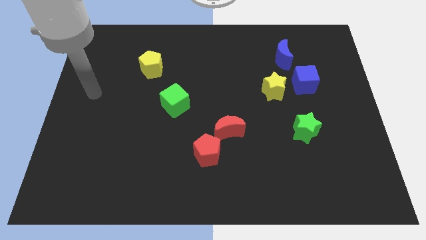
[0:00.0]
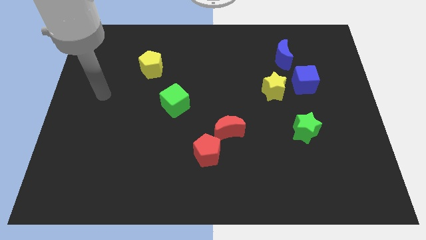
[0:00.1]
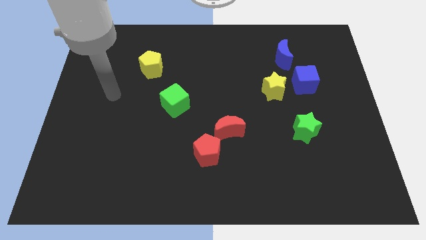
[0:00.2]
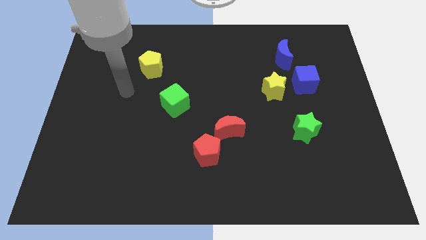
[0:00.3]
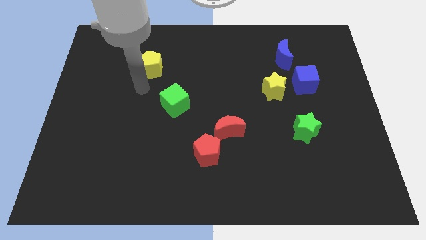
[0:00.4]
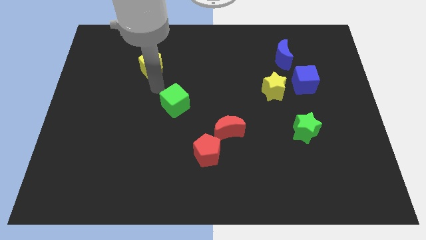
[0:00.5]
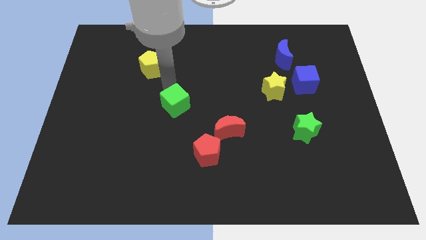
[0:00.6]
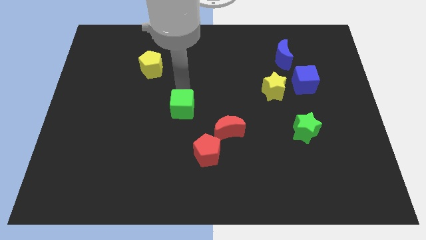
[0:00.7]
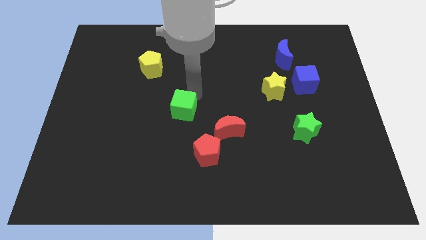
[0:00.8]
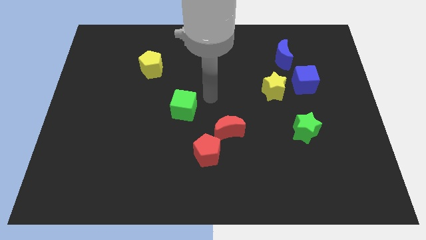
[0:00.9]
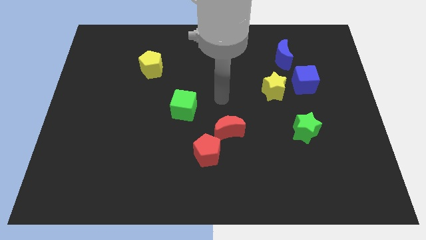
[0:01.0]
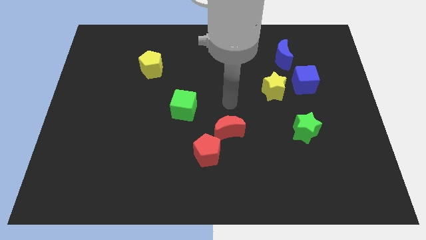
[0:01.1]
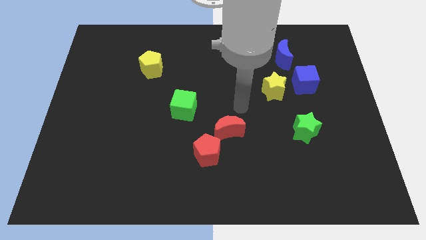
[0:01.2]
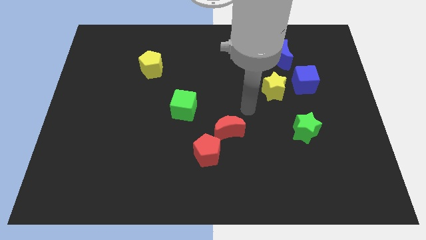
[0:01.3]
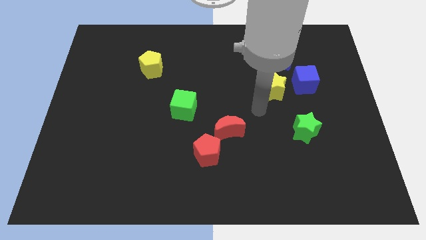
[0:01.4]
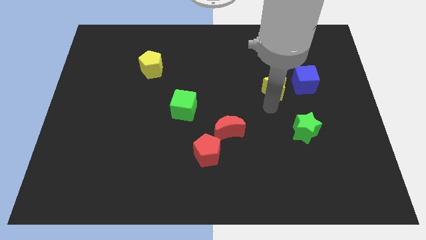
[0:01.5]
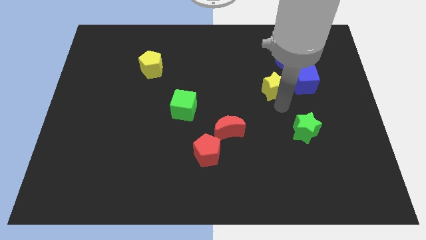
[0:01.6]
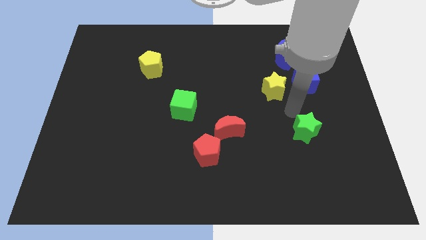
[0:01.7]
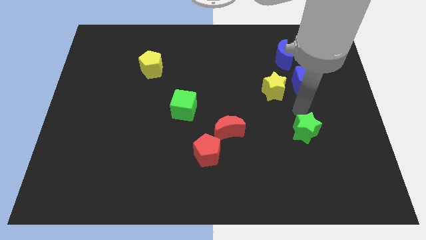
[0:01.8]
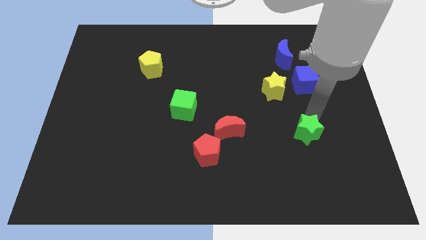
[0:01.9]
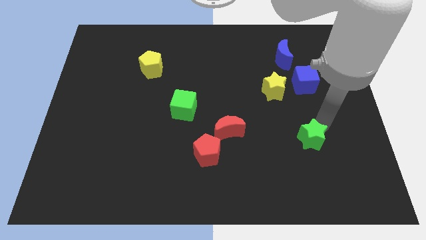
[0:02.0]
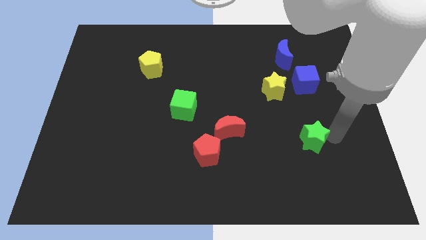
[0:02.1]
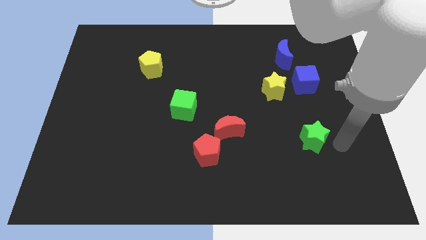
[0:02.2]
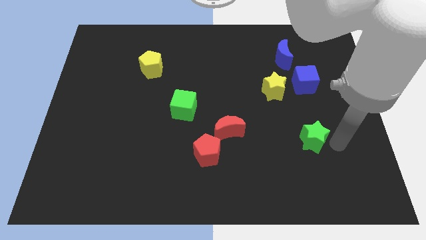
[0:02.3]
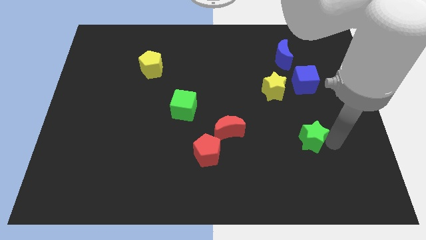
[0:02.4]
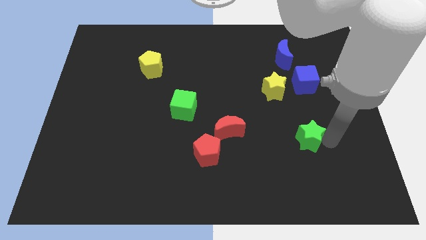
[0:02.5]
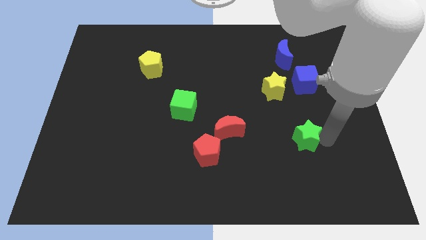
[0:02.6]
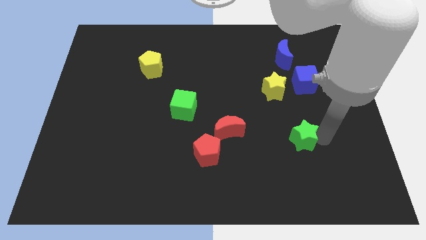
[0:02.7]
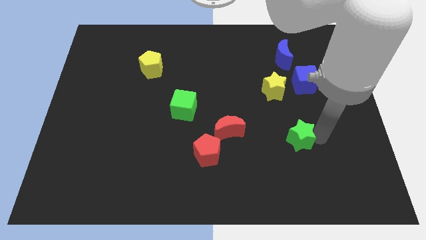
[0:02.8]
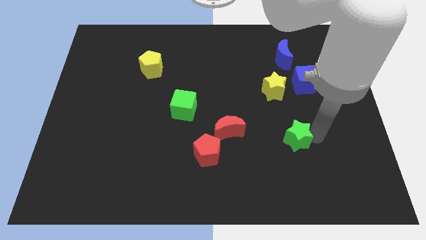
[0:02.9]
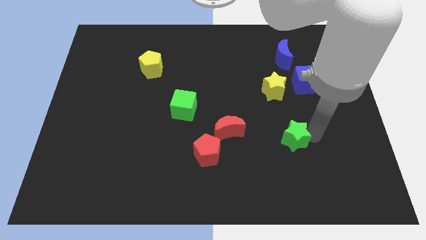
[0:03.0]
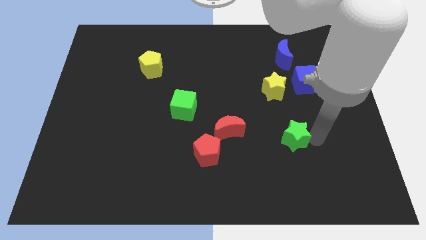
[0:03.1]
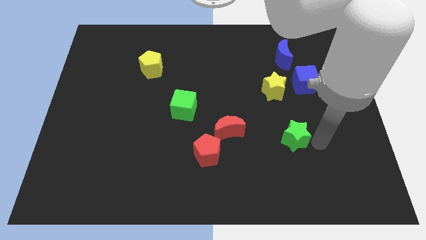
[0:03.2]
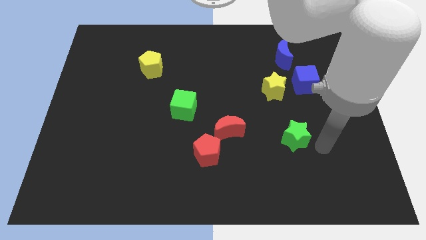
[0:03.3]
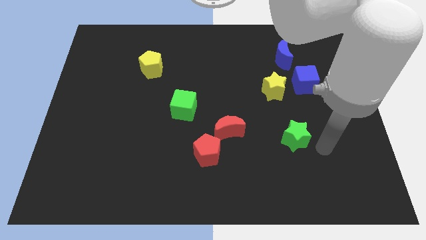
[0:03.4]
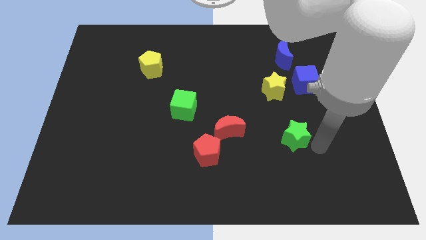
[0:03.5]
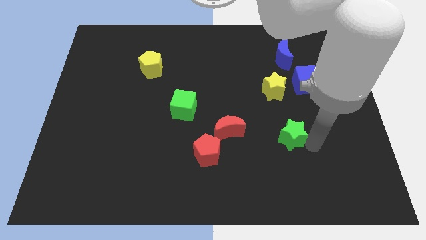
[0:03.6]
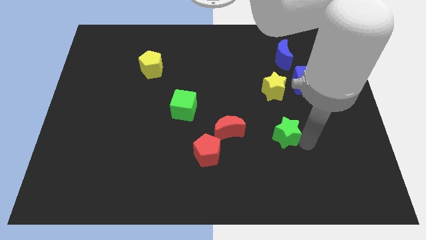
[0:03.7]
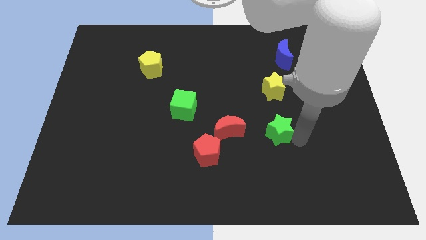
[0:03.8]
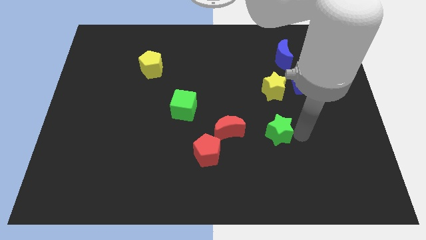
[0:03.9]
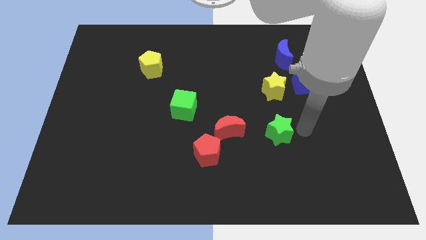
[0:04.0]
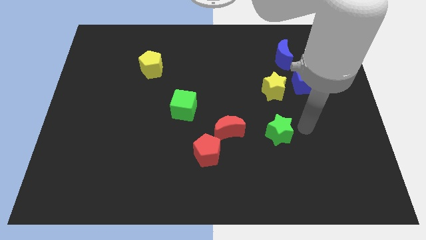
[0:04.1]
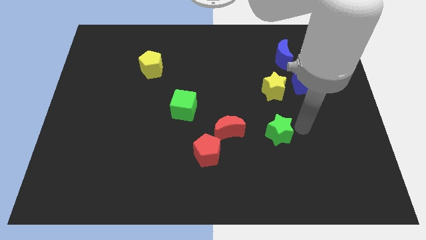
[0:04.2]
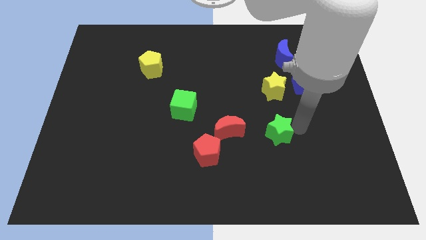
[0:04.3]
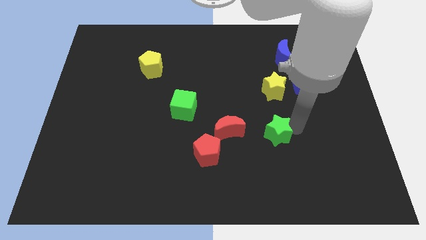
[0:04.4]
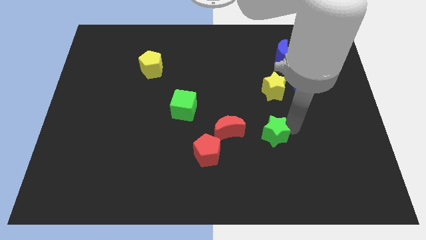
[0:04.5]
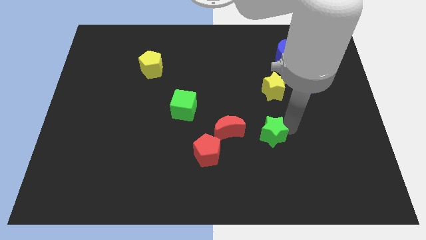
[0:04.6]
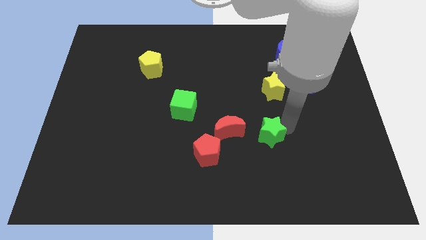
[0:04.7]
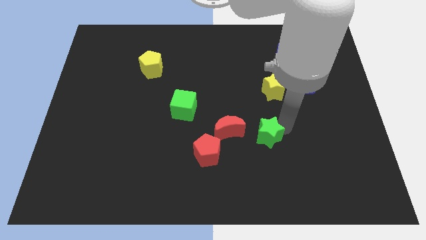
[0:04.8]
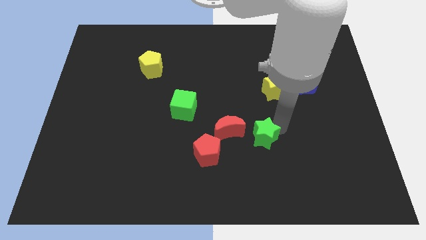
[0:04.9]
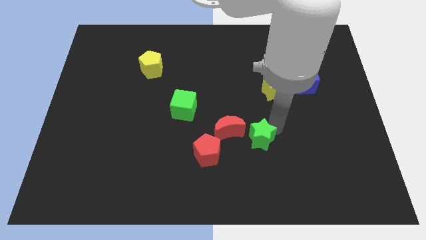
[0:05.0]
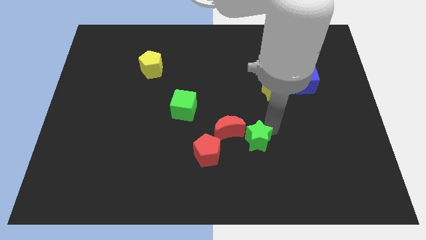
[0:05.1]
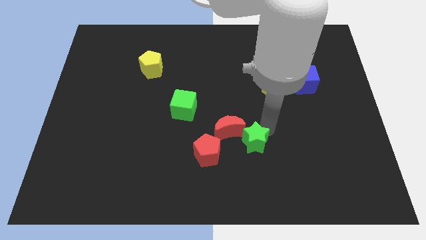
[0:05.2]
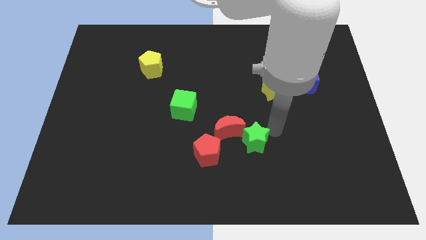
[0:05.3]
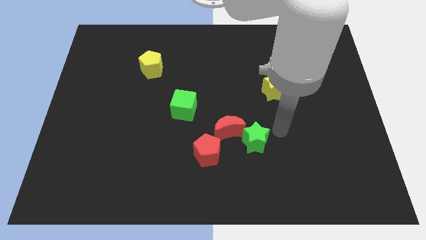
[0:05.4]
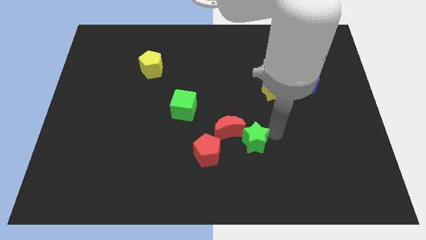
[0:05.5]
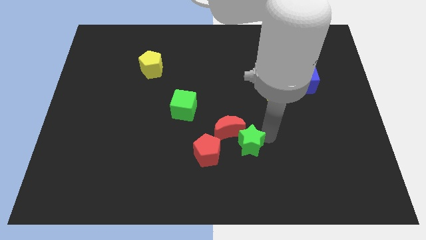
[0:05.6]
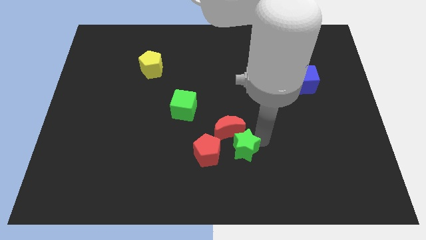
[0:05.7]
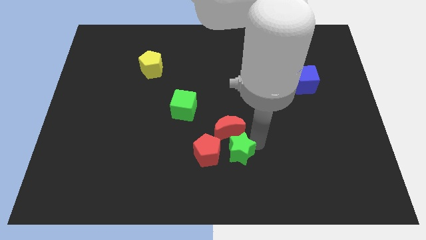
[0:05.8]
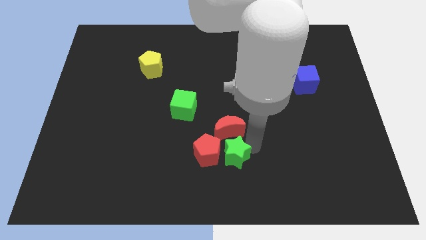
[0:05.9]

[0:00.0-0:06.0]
move the green star next to the red pentagon

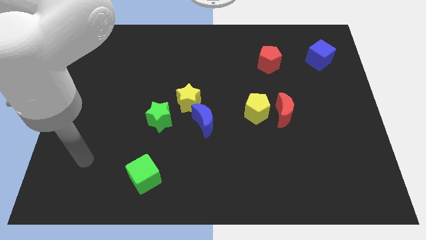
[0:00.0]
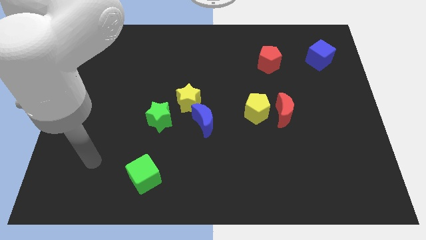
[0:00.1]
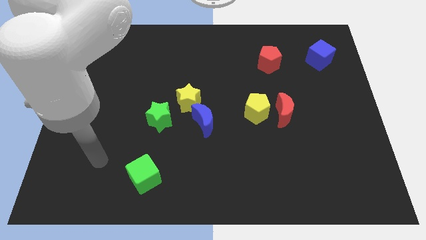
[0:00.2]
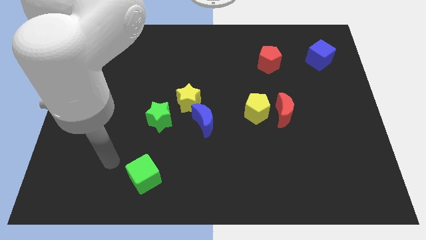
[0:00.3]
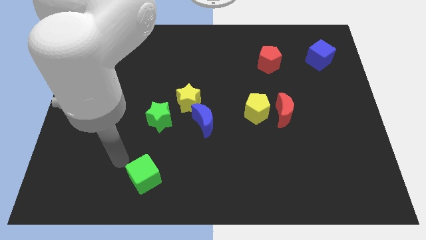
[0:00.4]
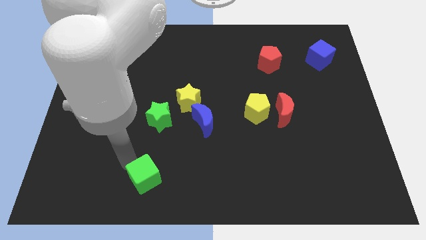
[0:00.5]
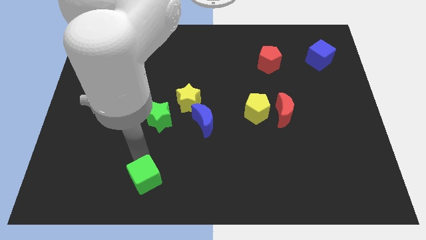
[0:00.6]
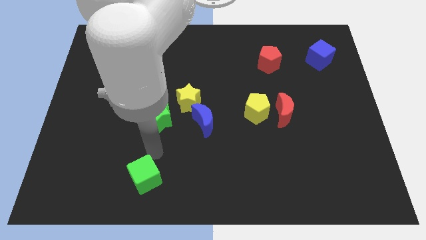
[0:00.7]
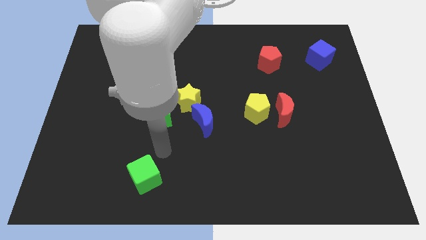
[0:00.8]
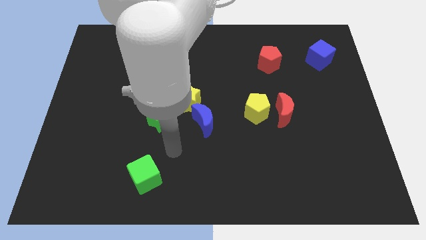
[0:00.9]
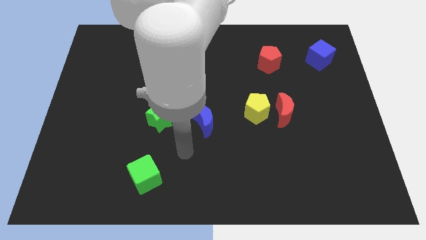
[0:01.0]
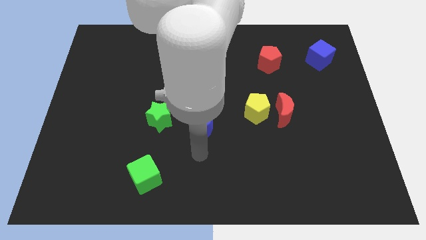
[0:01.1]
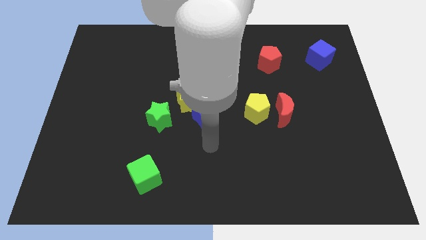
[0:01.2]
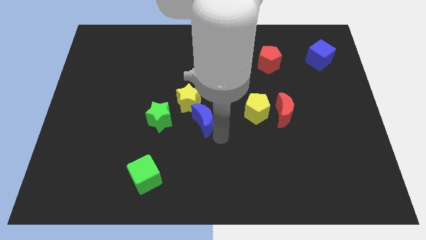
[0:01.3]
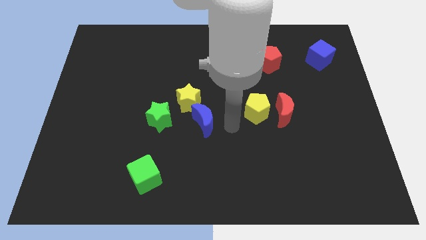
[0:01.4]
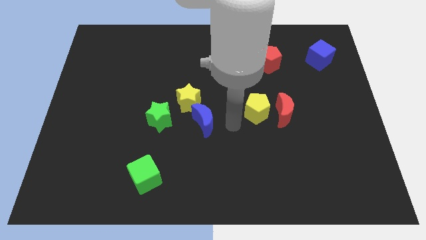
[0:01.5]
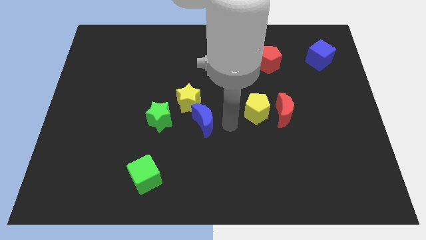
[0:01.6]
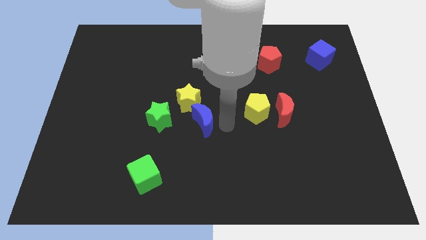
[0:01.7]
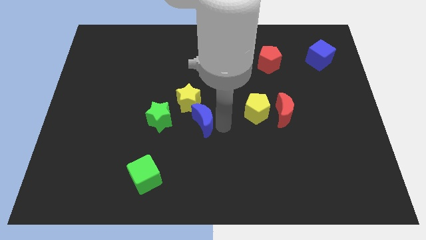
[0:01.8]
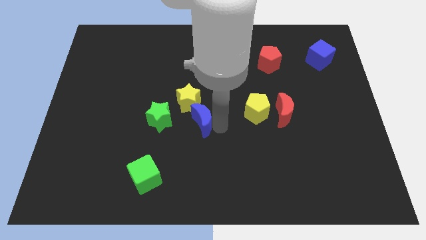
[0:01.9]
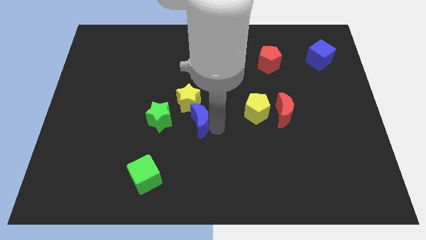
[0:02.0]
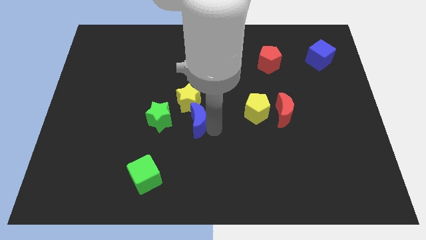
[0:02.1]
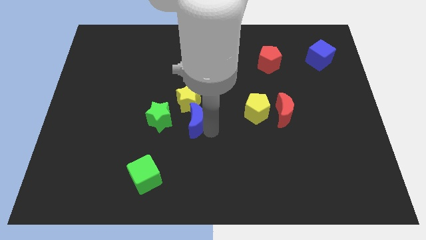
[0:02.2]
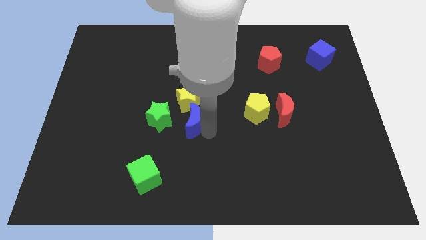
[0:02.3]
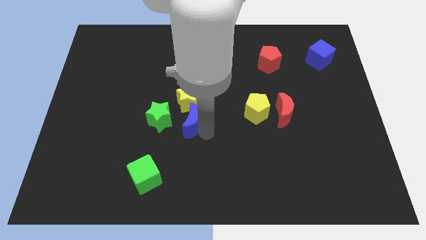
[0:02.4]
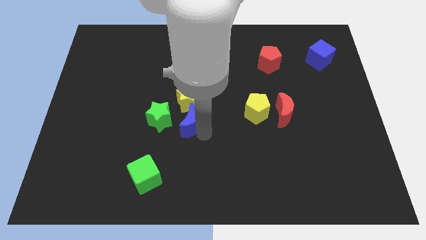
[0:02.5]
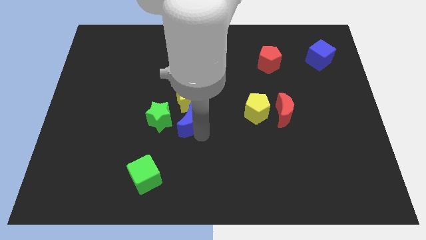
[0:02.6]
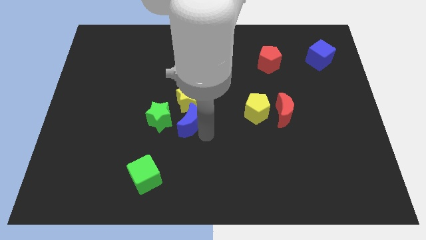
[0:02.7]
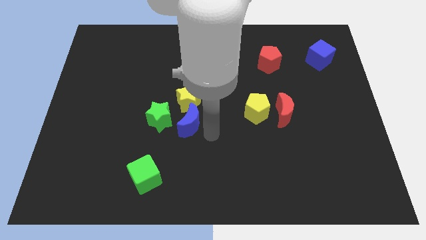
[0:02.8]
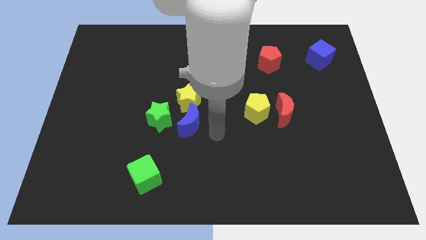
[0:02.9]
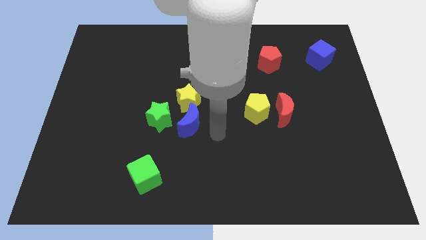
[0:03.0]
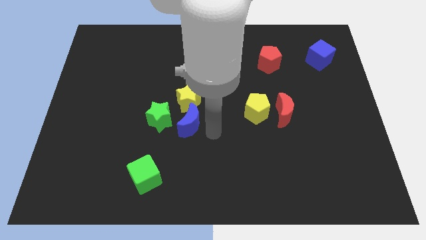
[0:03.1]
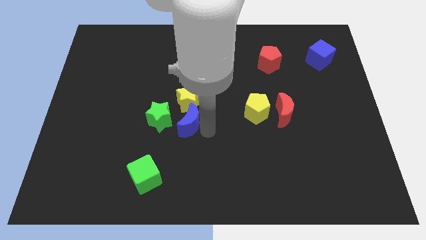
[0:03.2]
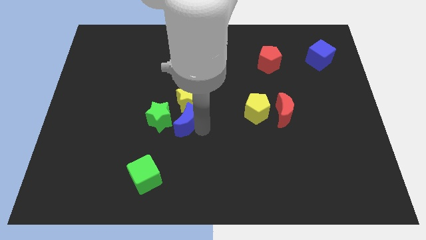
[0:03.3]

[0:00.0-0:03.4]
put the blue moon next to the green star
